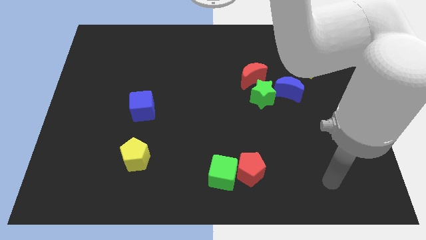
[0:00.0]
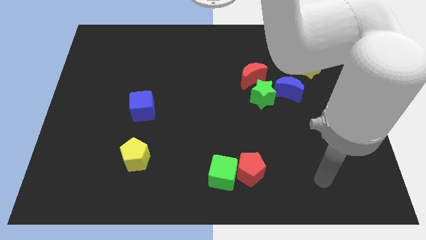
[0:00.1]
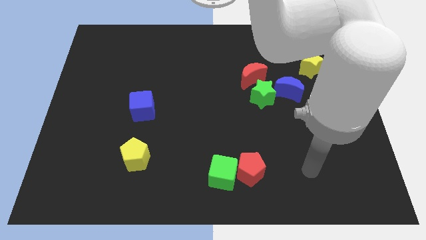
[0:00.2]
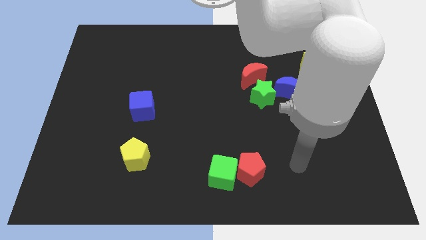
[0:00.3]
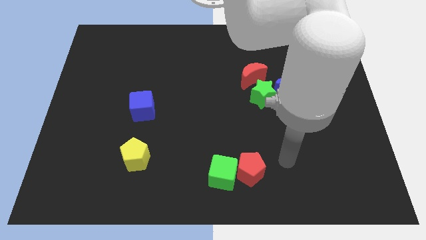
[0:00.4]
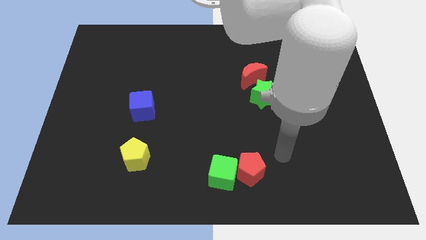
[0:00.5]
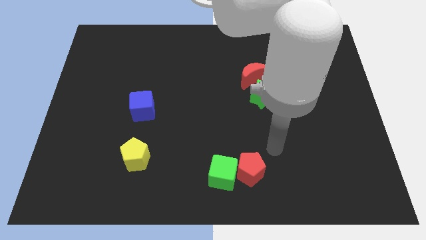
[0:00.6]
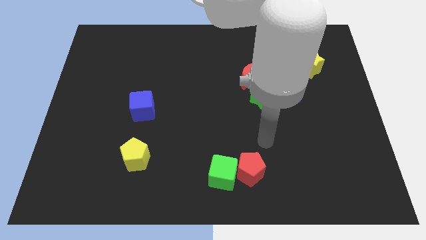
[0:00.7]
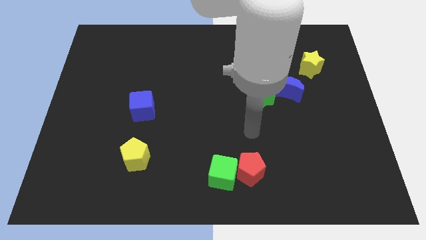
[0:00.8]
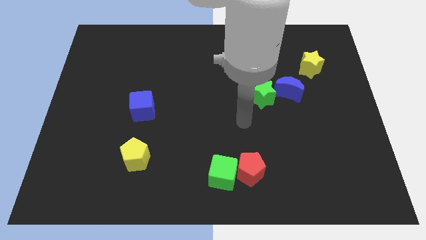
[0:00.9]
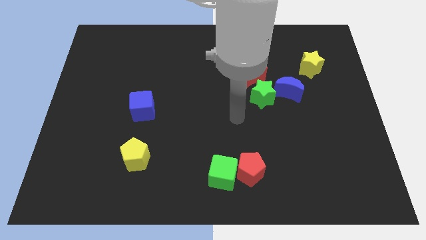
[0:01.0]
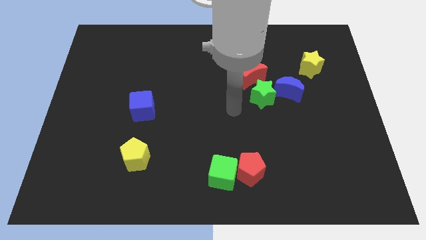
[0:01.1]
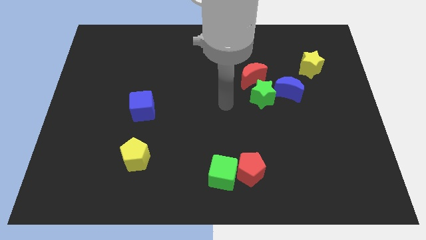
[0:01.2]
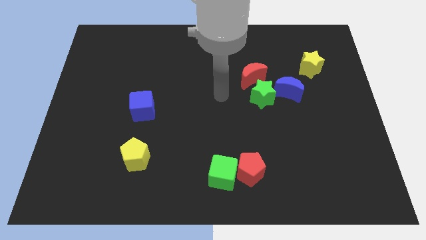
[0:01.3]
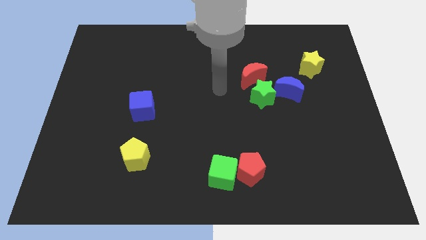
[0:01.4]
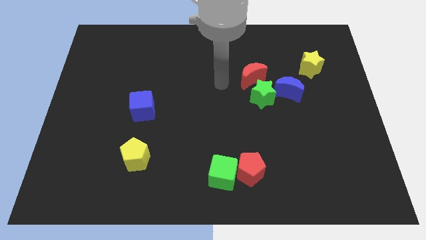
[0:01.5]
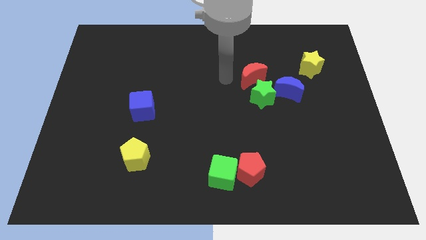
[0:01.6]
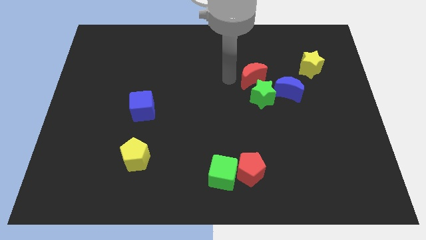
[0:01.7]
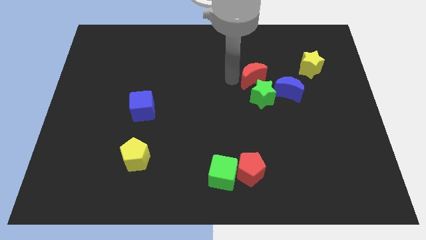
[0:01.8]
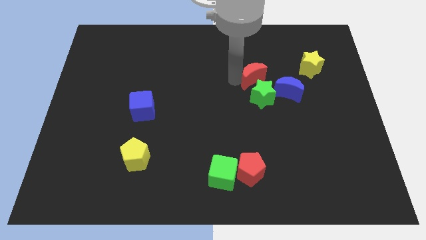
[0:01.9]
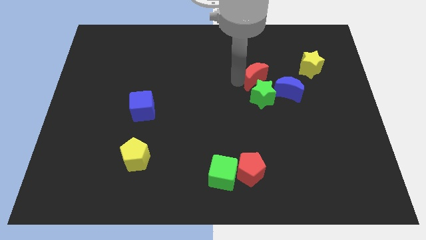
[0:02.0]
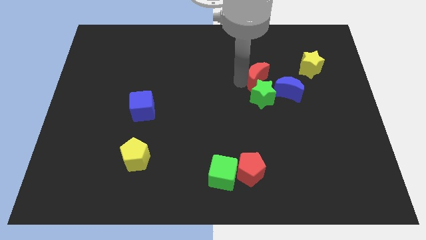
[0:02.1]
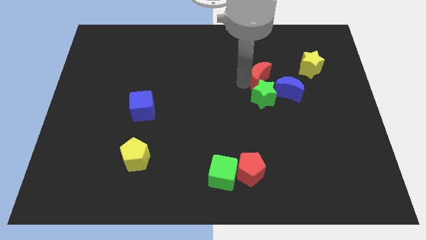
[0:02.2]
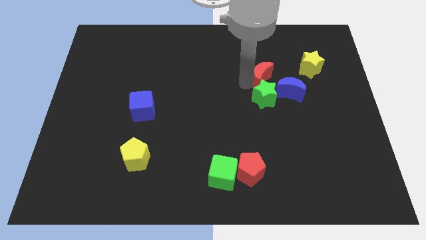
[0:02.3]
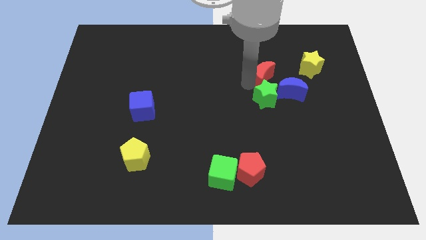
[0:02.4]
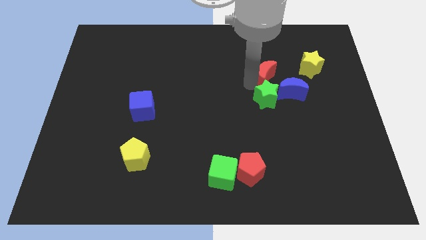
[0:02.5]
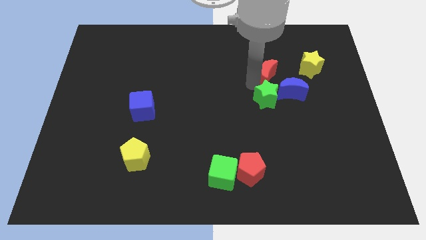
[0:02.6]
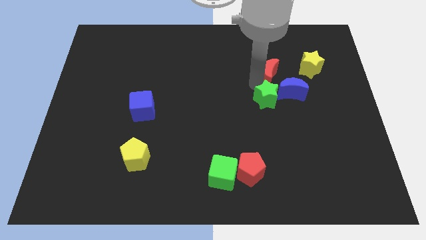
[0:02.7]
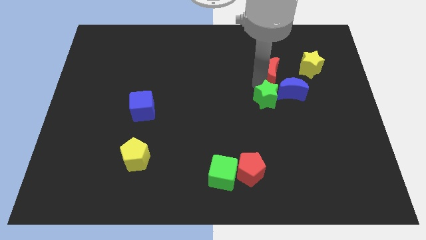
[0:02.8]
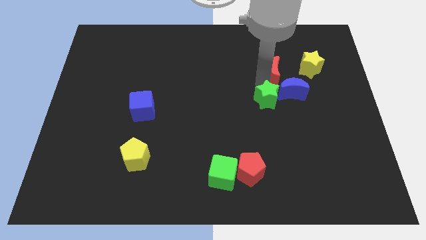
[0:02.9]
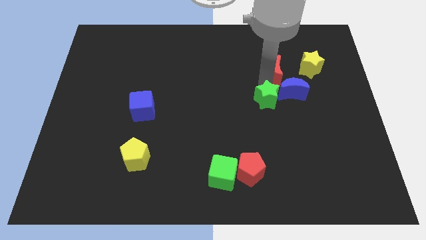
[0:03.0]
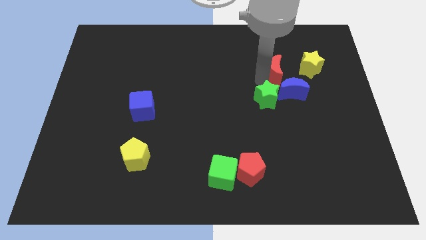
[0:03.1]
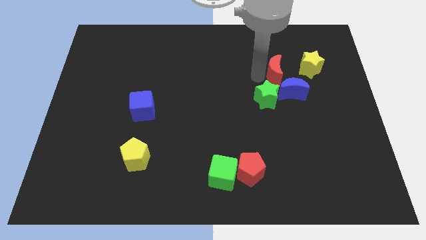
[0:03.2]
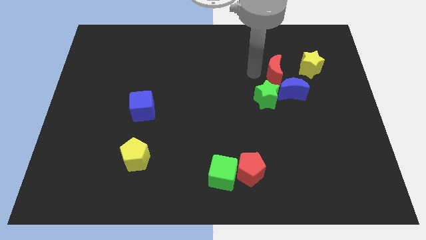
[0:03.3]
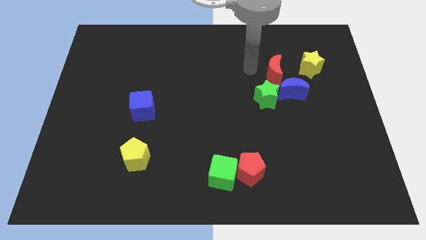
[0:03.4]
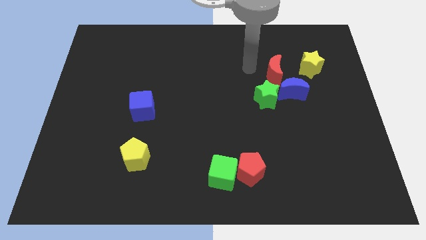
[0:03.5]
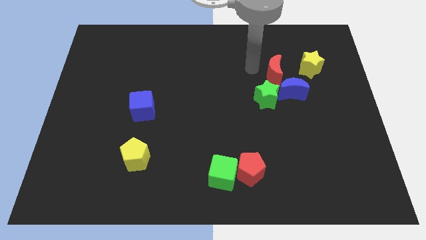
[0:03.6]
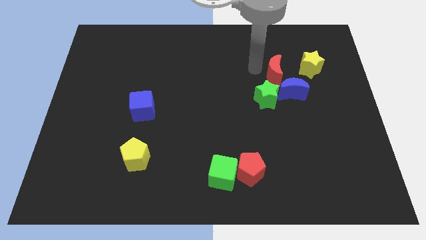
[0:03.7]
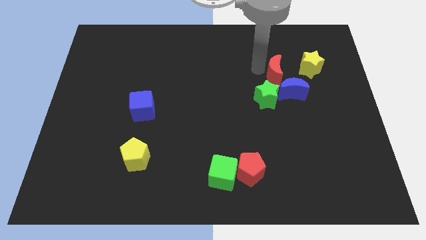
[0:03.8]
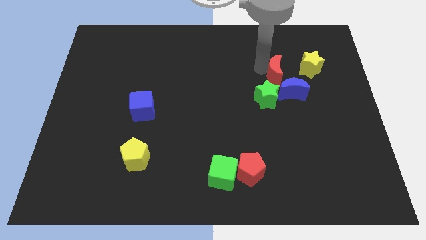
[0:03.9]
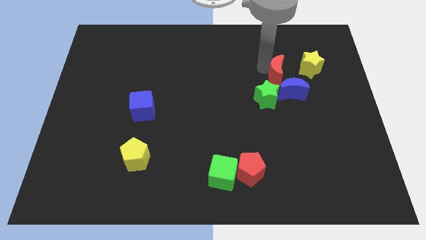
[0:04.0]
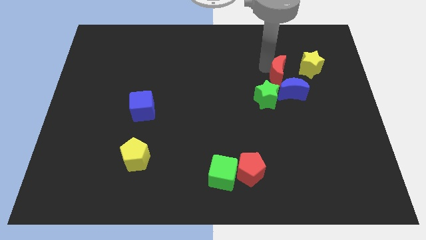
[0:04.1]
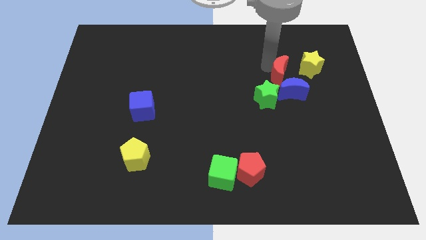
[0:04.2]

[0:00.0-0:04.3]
push the red moon to the right somewhat

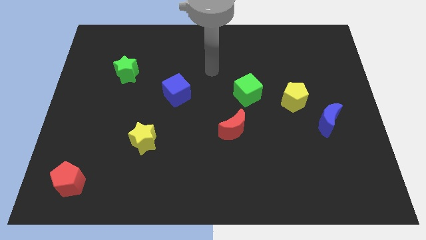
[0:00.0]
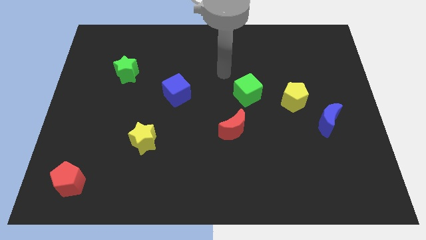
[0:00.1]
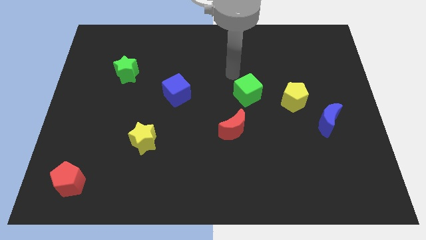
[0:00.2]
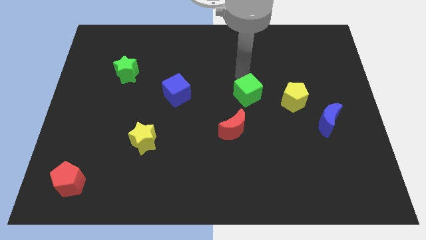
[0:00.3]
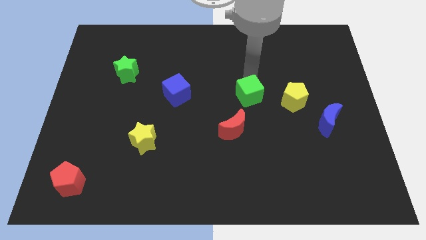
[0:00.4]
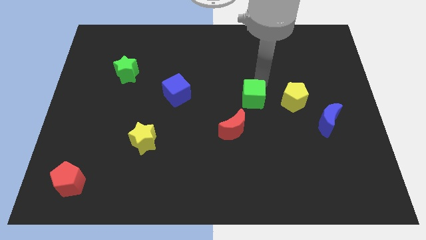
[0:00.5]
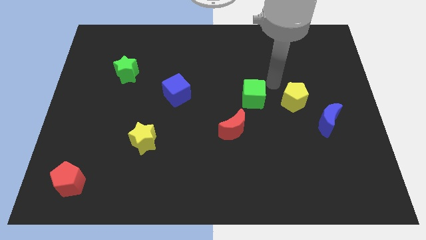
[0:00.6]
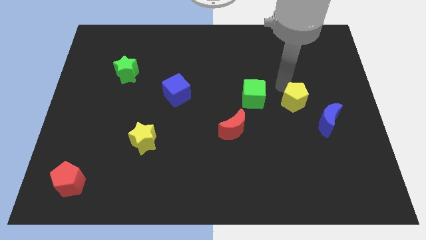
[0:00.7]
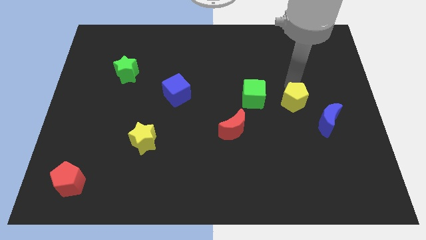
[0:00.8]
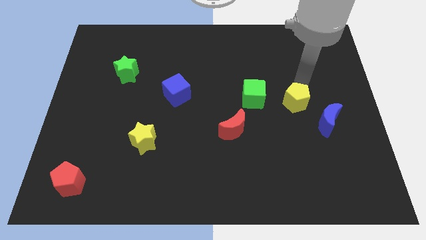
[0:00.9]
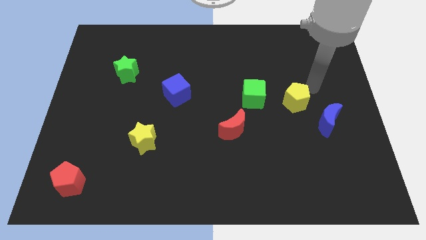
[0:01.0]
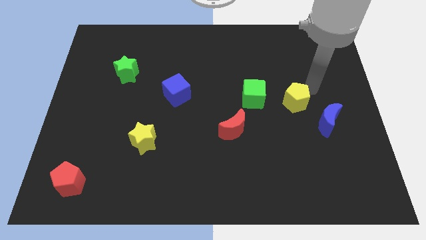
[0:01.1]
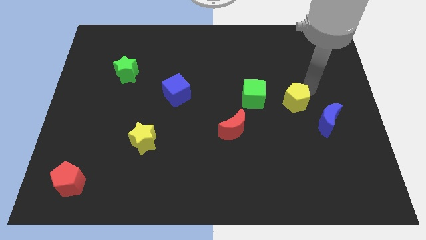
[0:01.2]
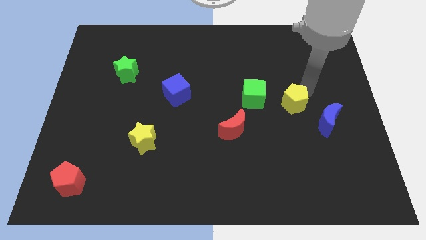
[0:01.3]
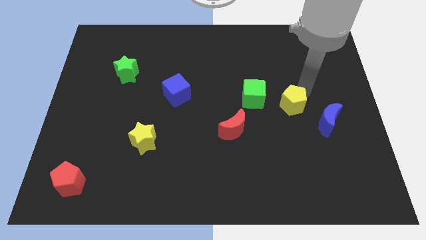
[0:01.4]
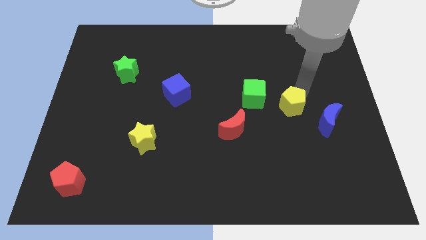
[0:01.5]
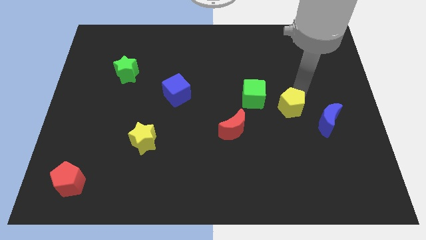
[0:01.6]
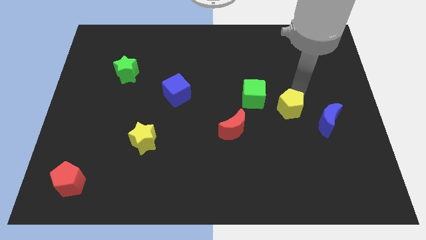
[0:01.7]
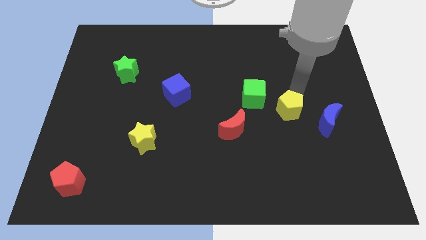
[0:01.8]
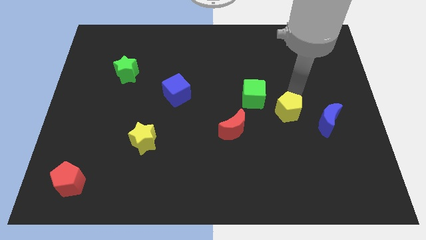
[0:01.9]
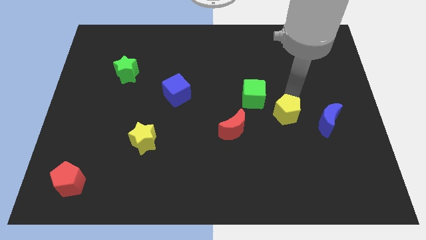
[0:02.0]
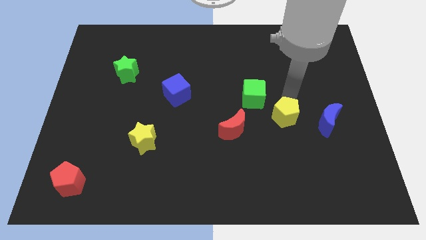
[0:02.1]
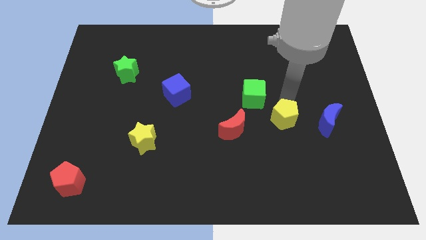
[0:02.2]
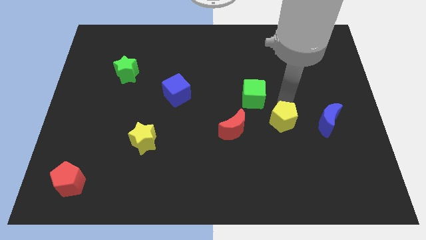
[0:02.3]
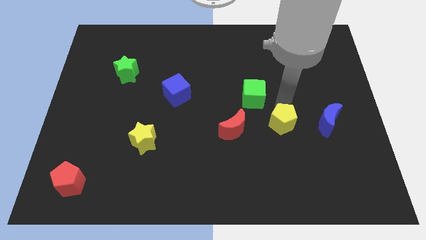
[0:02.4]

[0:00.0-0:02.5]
slide the yellow pentagon downwards and to the left diagonally a bit

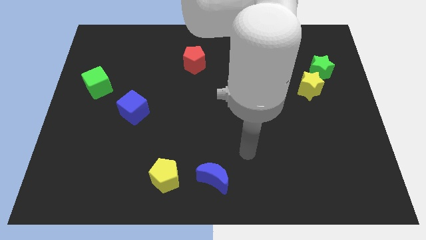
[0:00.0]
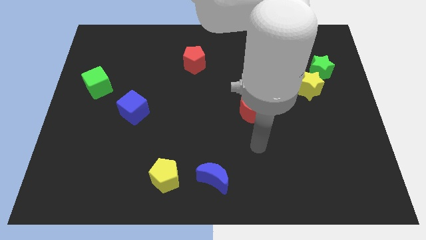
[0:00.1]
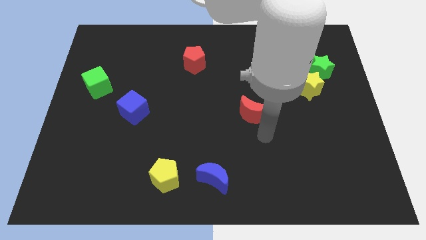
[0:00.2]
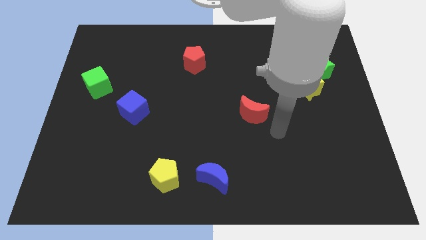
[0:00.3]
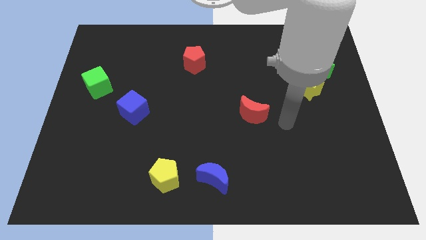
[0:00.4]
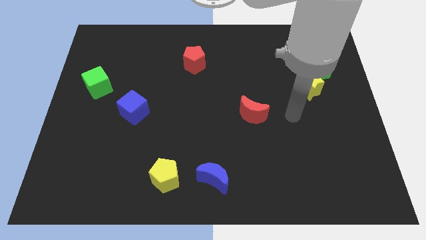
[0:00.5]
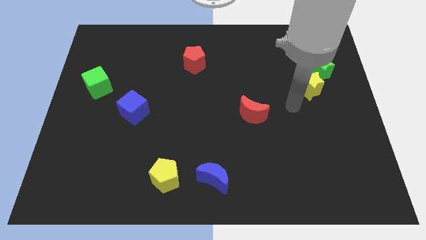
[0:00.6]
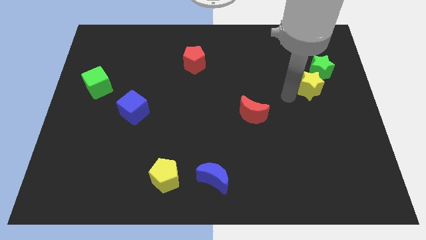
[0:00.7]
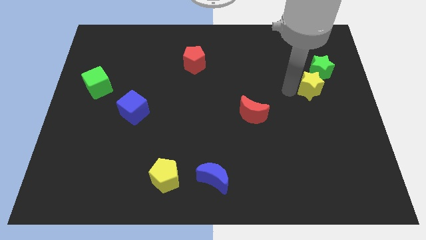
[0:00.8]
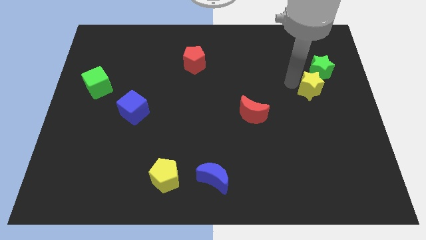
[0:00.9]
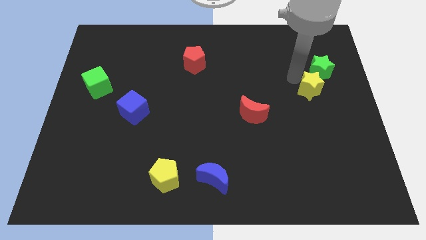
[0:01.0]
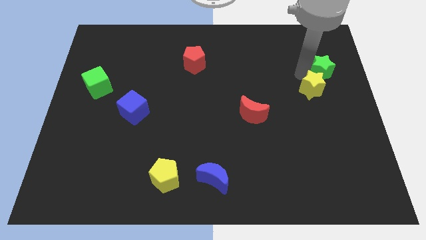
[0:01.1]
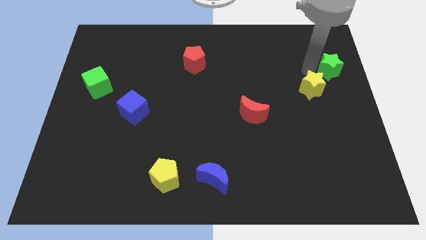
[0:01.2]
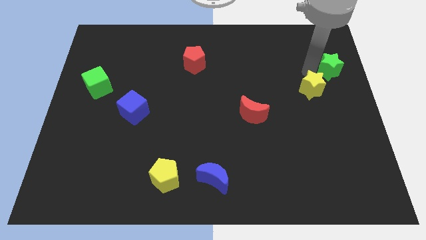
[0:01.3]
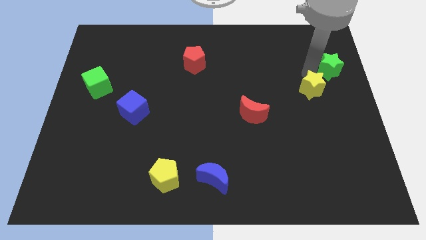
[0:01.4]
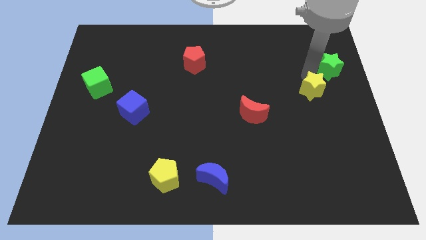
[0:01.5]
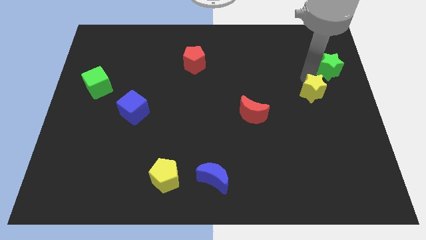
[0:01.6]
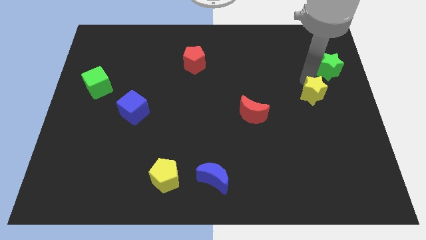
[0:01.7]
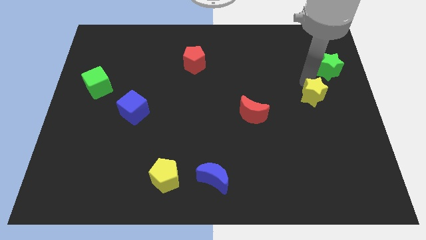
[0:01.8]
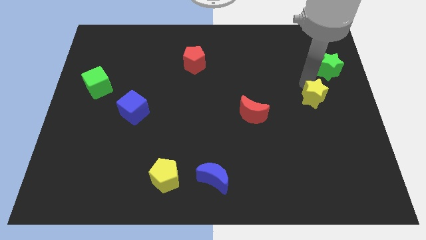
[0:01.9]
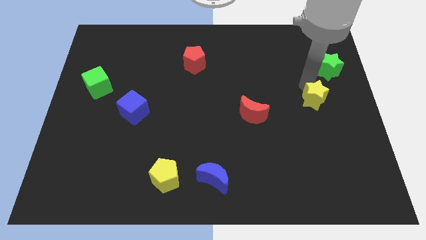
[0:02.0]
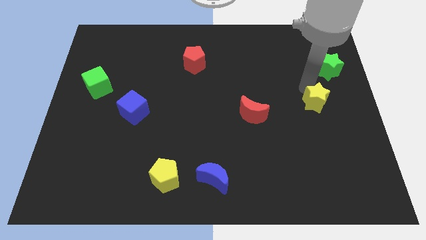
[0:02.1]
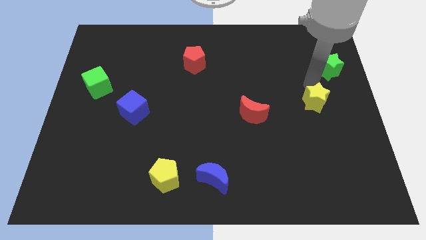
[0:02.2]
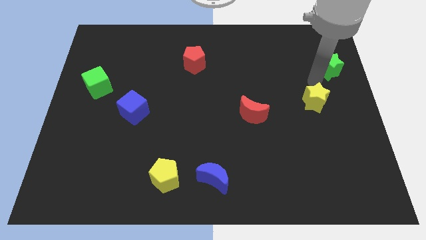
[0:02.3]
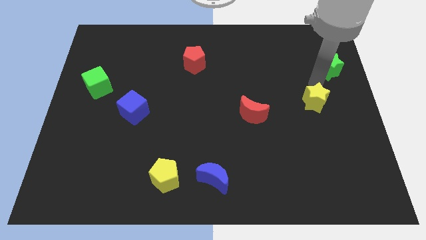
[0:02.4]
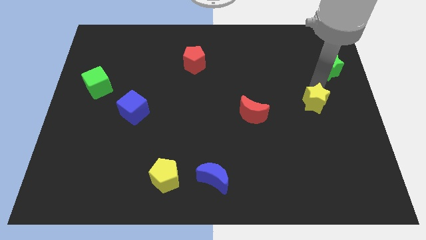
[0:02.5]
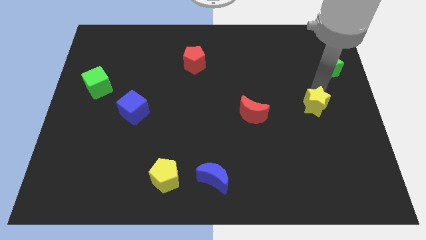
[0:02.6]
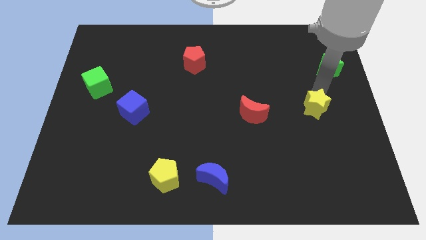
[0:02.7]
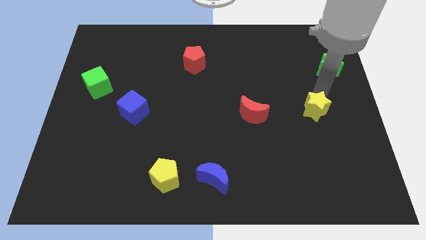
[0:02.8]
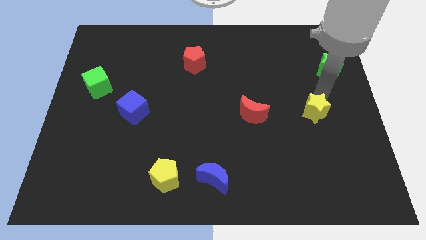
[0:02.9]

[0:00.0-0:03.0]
slide the yellow star downwards a little bit
